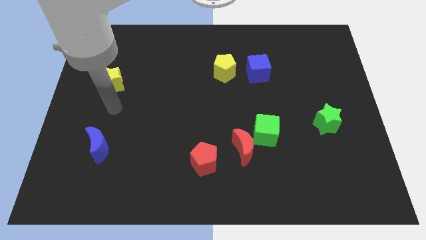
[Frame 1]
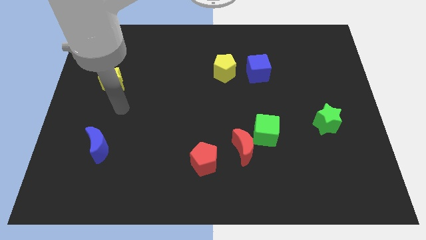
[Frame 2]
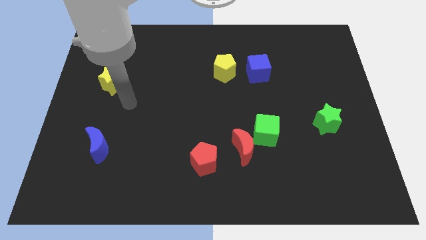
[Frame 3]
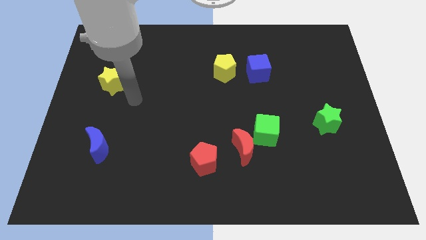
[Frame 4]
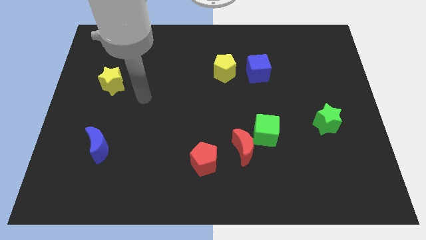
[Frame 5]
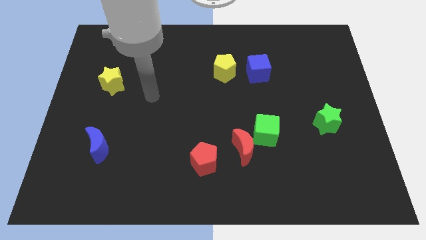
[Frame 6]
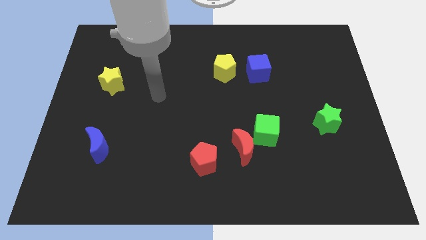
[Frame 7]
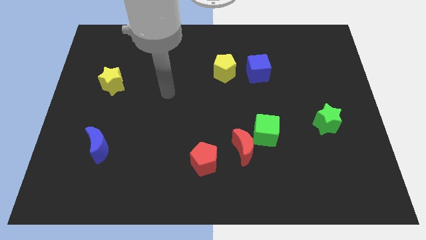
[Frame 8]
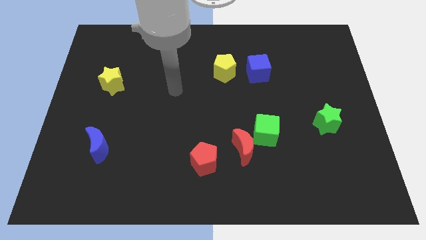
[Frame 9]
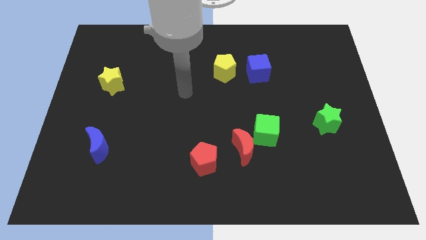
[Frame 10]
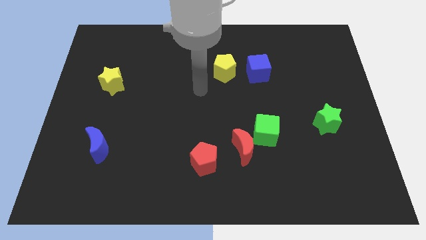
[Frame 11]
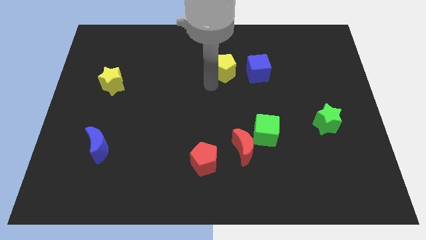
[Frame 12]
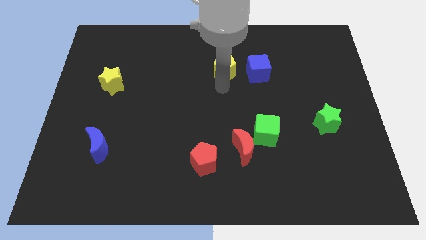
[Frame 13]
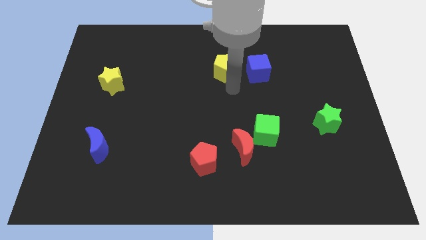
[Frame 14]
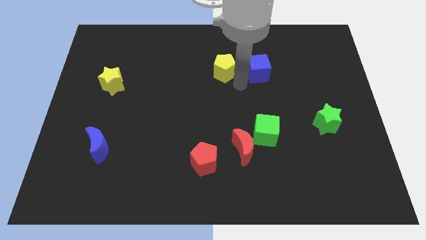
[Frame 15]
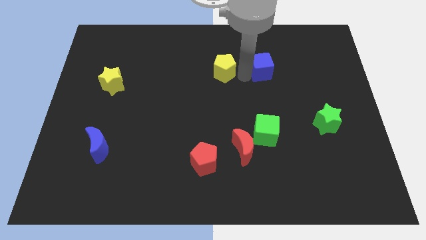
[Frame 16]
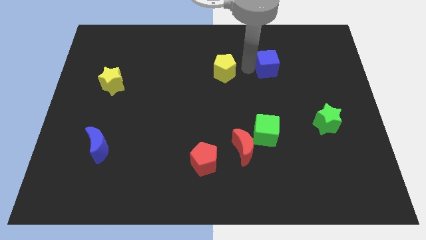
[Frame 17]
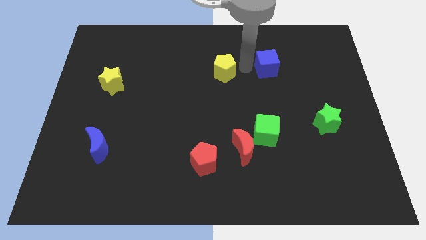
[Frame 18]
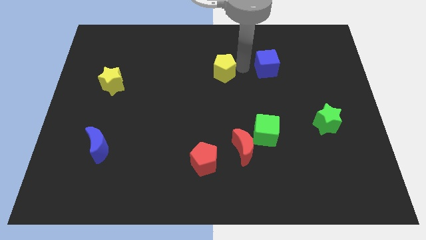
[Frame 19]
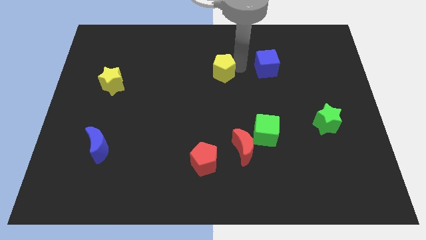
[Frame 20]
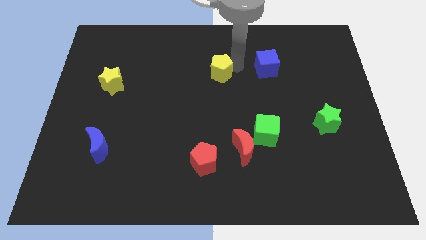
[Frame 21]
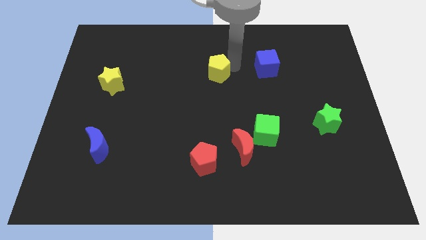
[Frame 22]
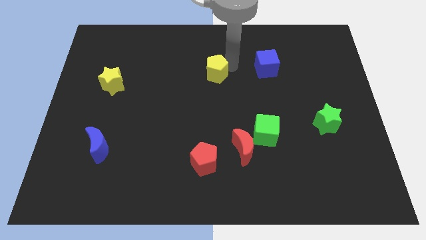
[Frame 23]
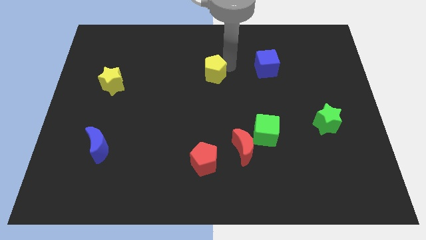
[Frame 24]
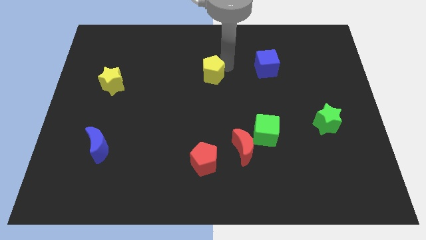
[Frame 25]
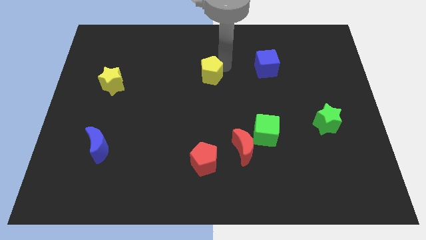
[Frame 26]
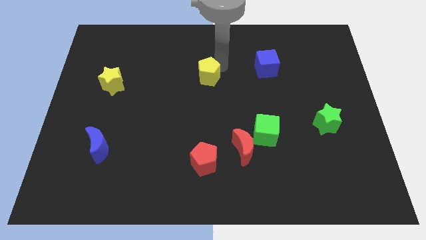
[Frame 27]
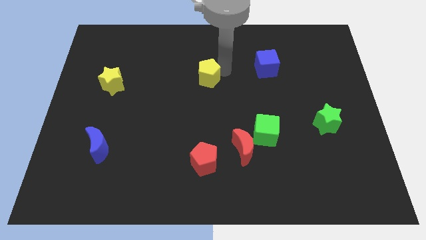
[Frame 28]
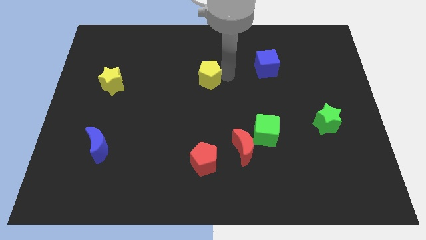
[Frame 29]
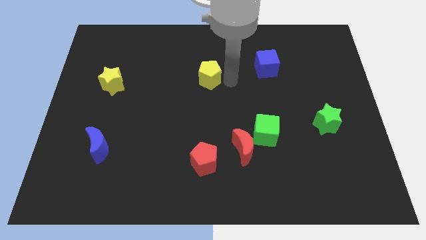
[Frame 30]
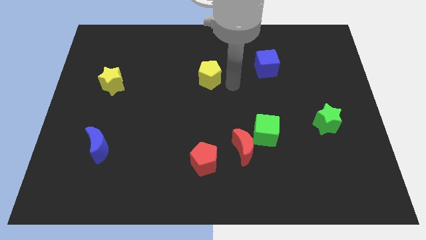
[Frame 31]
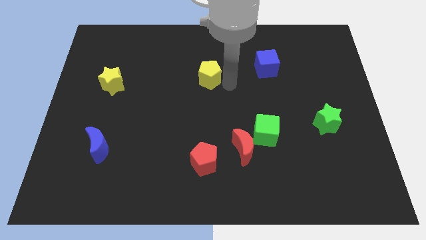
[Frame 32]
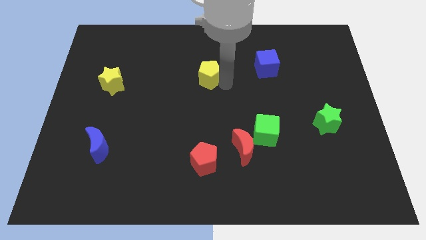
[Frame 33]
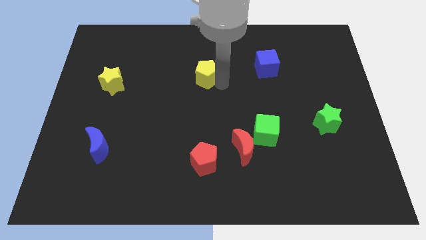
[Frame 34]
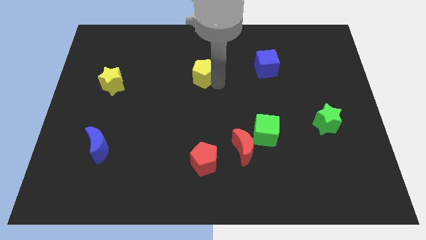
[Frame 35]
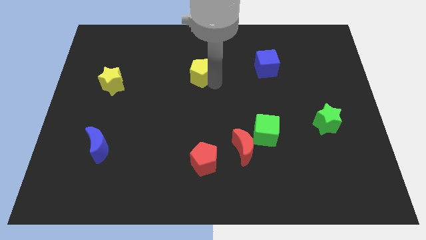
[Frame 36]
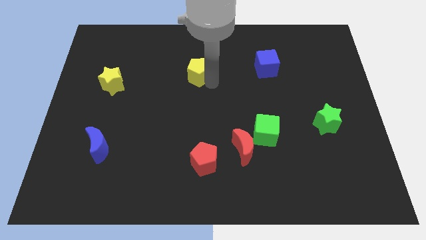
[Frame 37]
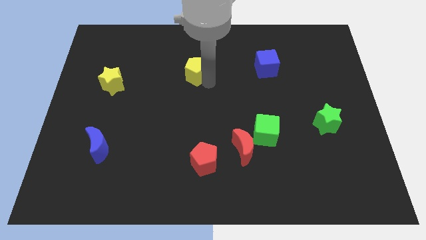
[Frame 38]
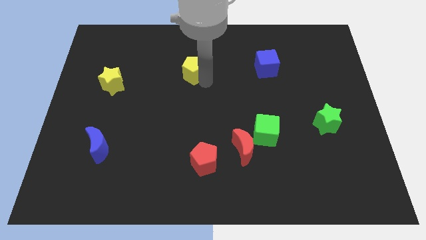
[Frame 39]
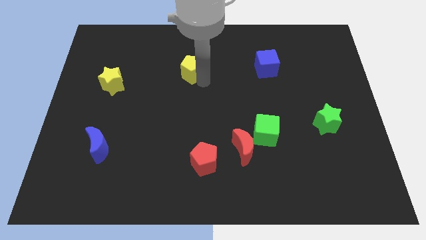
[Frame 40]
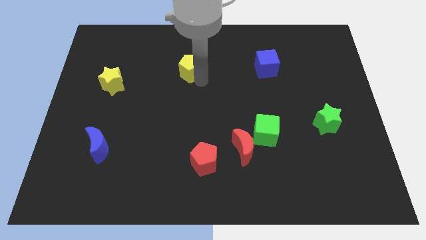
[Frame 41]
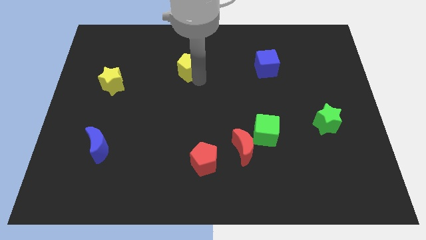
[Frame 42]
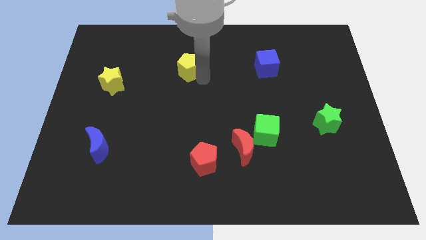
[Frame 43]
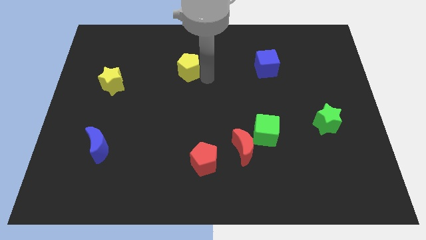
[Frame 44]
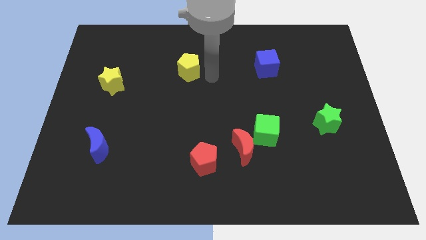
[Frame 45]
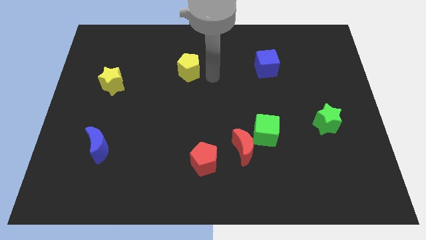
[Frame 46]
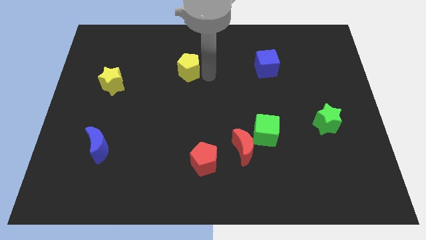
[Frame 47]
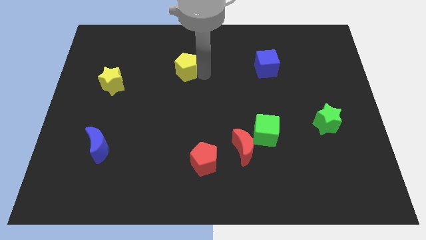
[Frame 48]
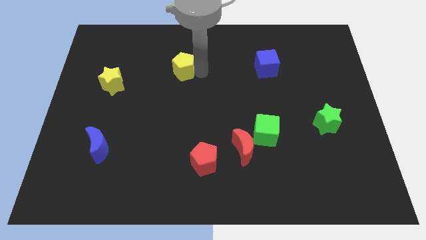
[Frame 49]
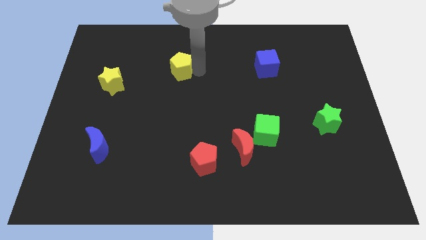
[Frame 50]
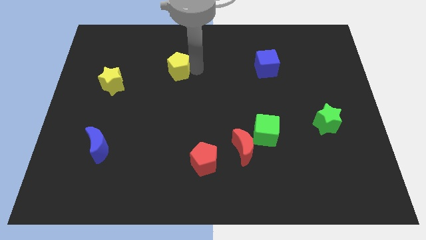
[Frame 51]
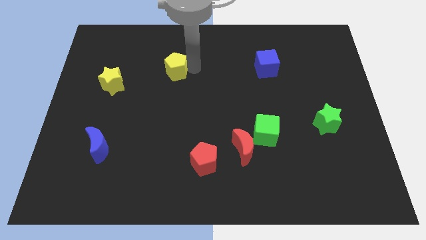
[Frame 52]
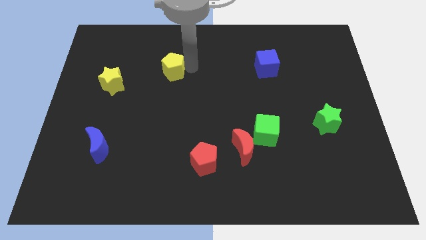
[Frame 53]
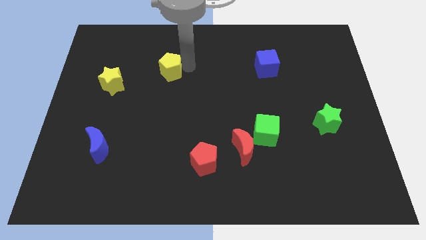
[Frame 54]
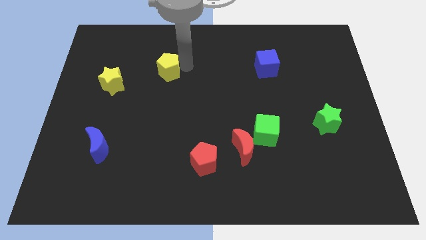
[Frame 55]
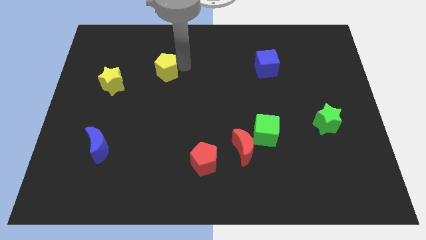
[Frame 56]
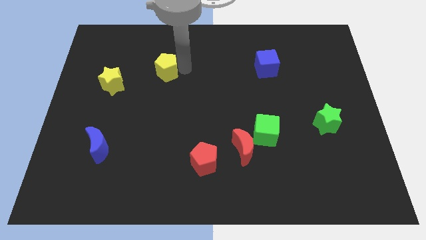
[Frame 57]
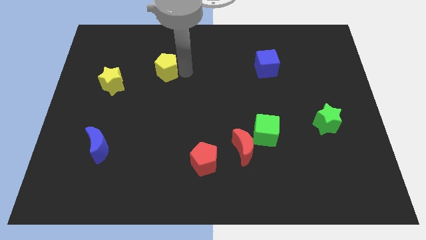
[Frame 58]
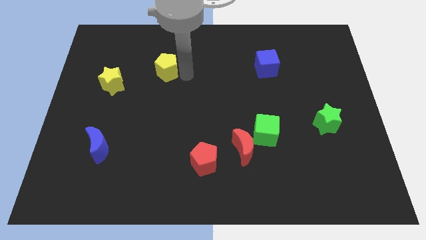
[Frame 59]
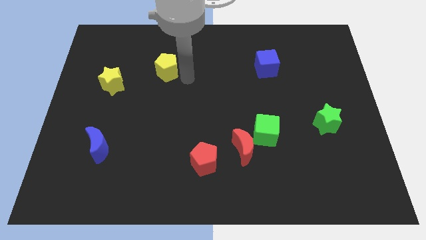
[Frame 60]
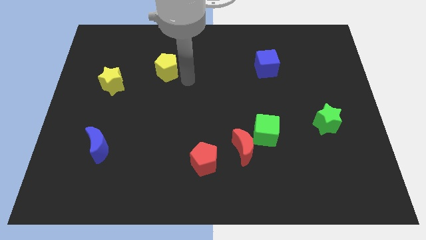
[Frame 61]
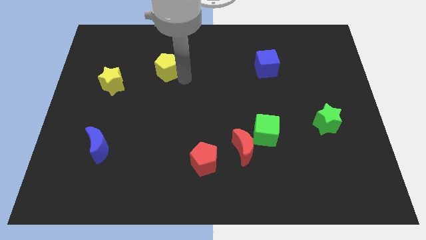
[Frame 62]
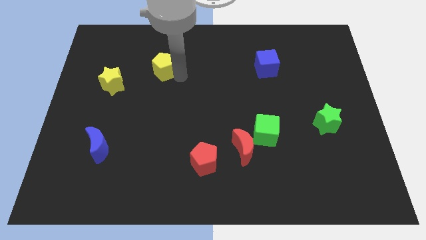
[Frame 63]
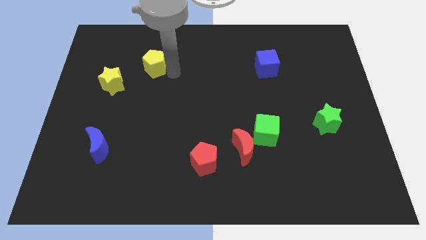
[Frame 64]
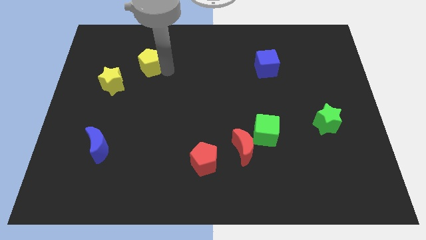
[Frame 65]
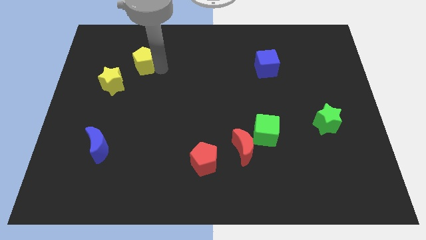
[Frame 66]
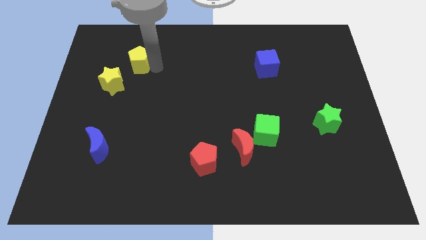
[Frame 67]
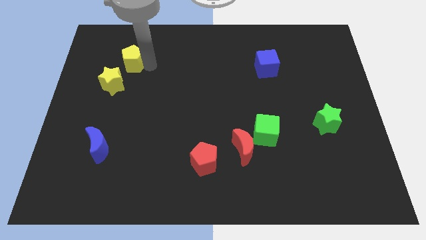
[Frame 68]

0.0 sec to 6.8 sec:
put the yellow pentagon to the top of the yellow star
